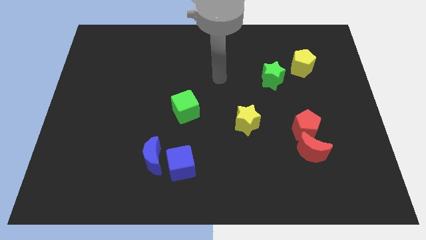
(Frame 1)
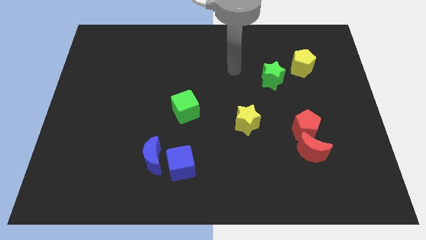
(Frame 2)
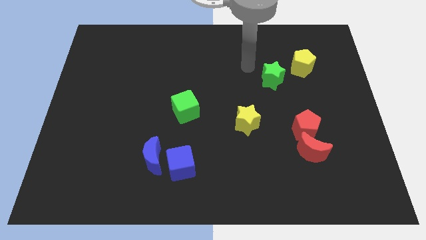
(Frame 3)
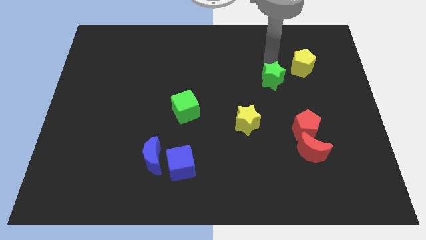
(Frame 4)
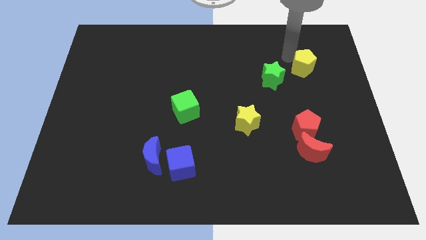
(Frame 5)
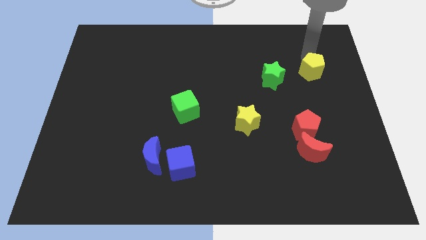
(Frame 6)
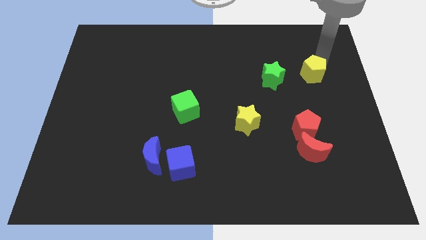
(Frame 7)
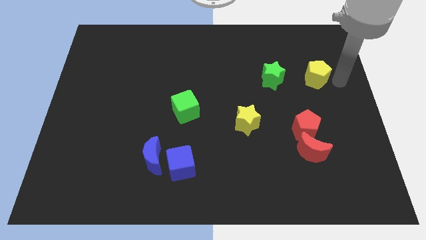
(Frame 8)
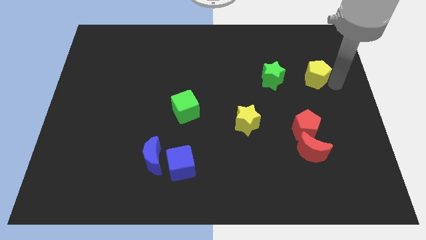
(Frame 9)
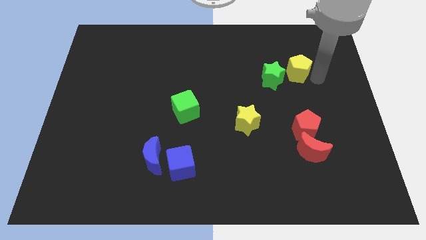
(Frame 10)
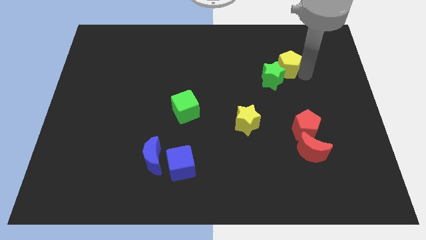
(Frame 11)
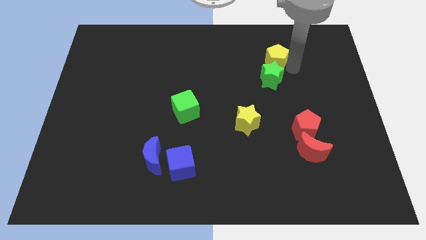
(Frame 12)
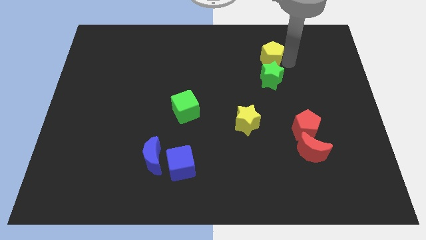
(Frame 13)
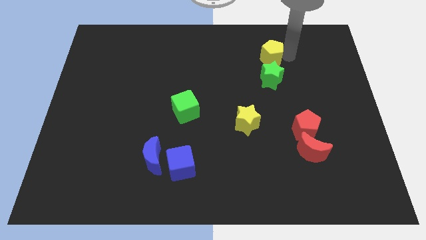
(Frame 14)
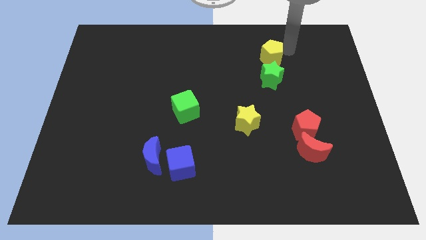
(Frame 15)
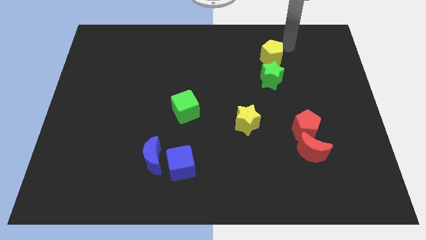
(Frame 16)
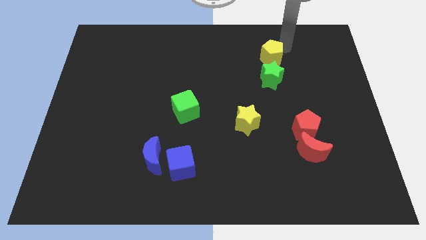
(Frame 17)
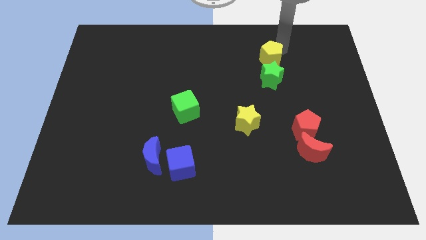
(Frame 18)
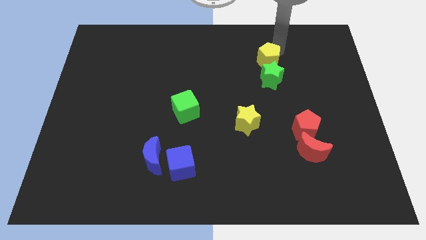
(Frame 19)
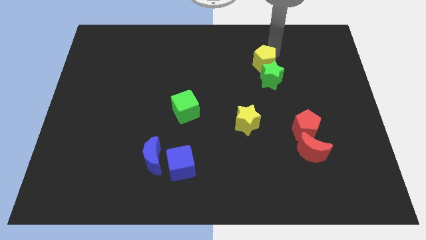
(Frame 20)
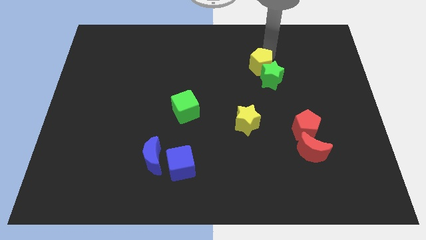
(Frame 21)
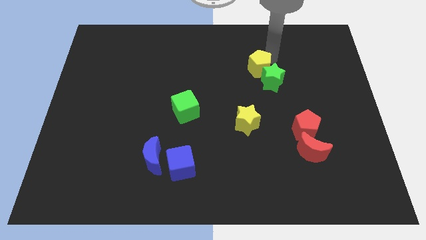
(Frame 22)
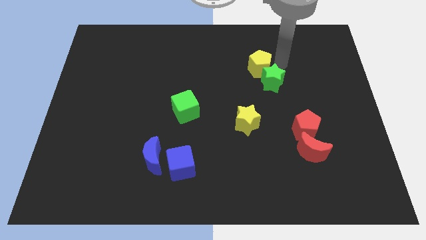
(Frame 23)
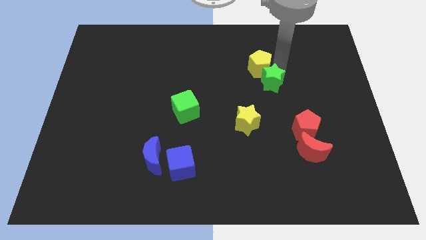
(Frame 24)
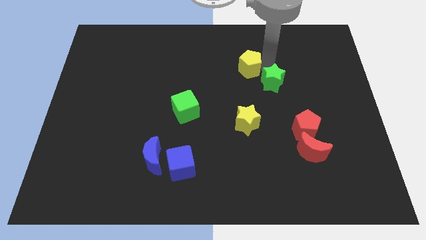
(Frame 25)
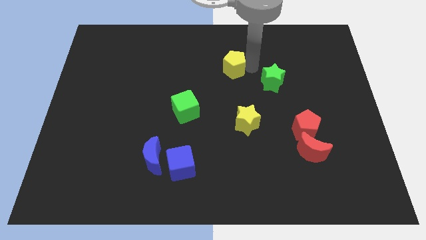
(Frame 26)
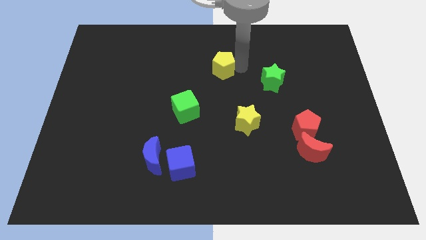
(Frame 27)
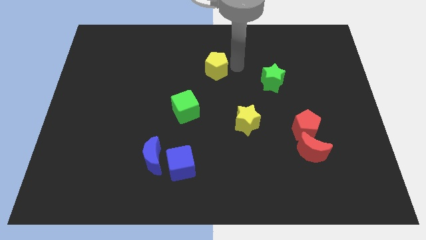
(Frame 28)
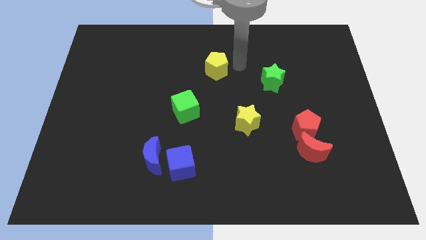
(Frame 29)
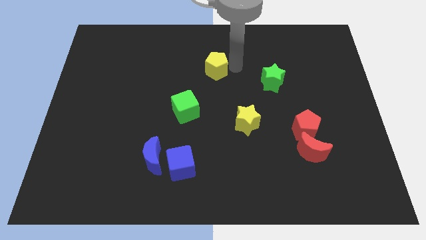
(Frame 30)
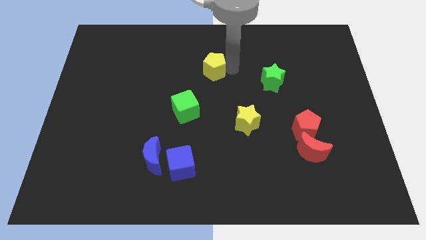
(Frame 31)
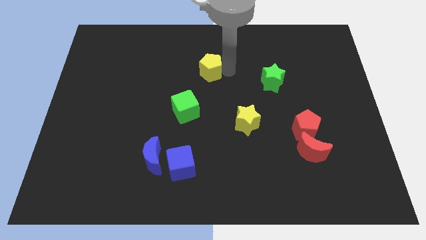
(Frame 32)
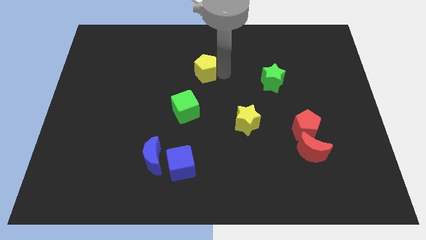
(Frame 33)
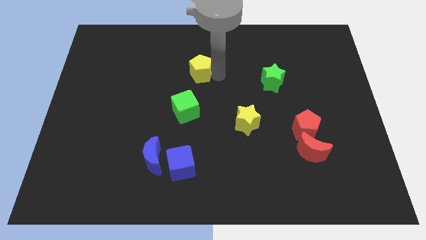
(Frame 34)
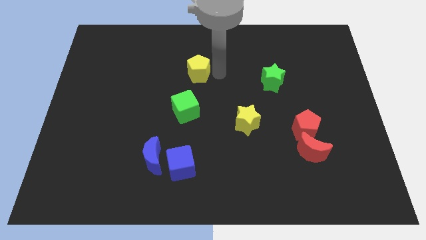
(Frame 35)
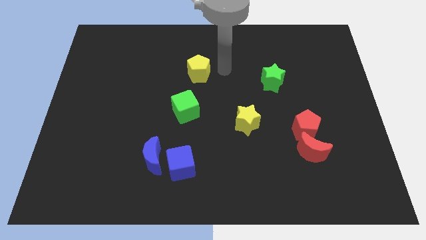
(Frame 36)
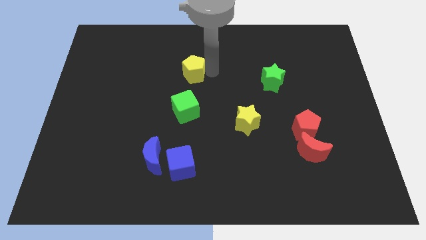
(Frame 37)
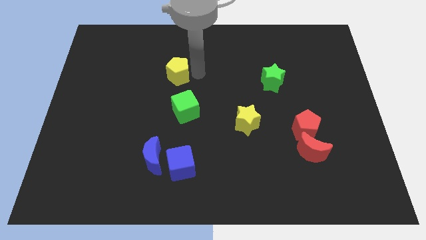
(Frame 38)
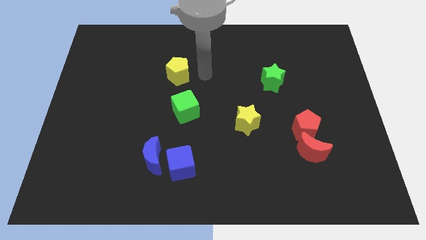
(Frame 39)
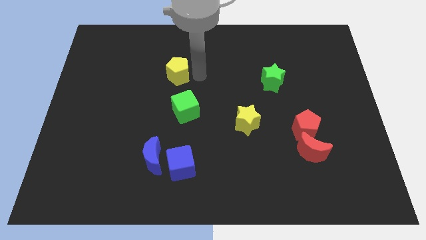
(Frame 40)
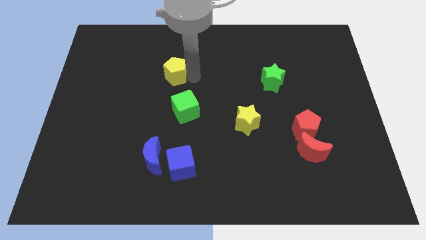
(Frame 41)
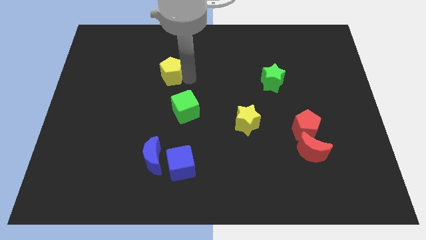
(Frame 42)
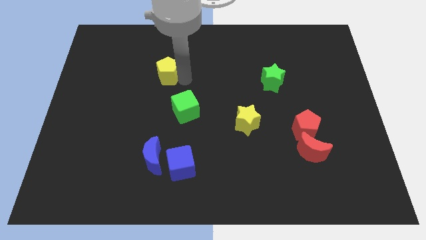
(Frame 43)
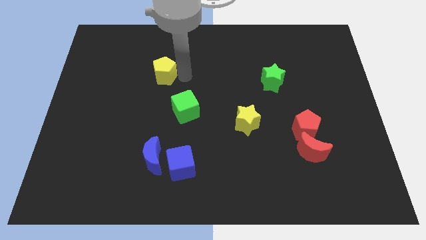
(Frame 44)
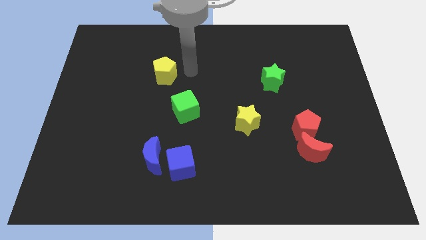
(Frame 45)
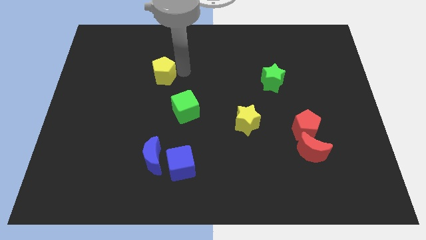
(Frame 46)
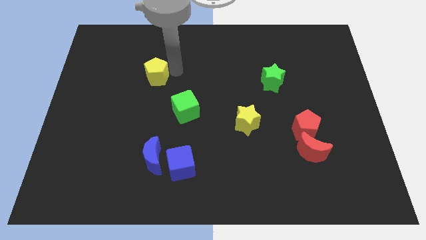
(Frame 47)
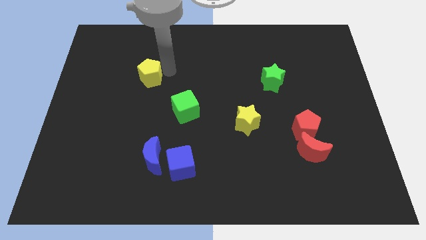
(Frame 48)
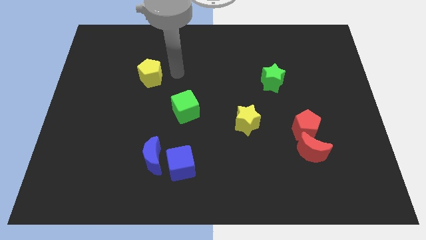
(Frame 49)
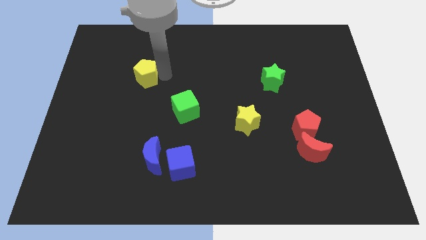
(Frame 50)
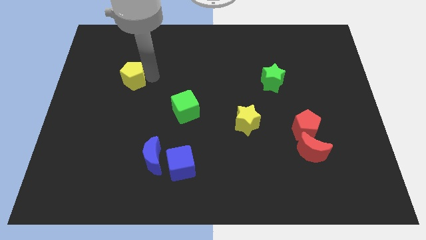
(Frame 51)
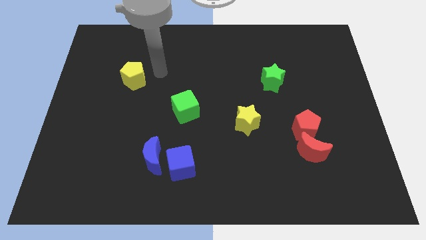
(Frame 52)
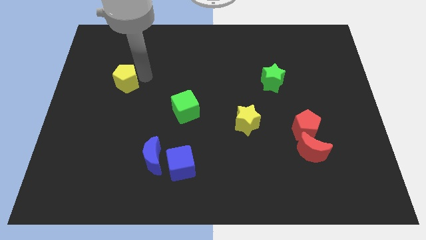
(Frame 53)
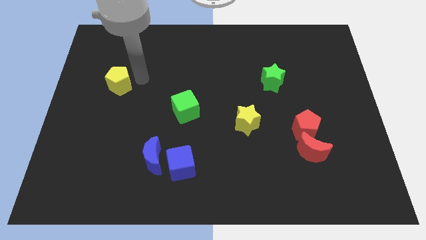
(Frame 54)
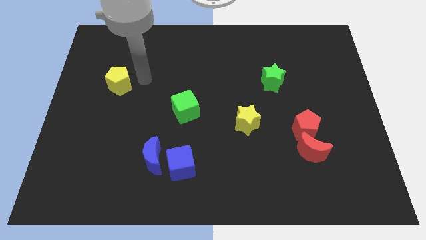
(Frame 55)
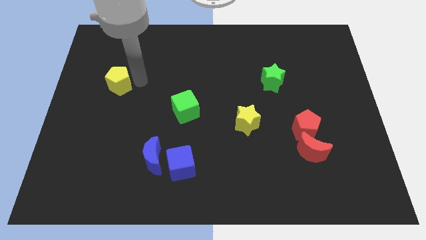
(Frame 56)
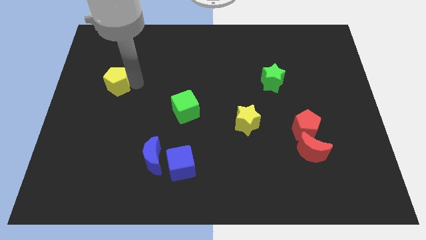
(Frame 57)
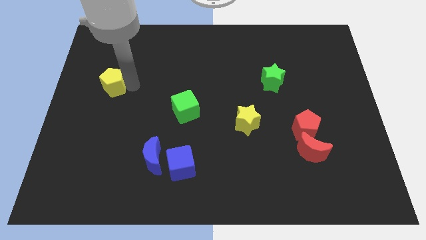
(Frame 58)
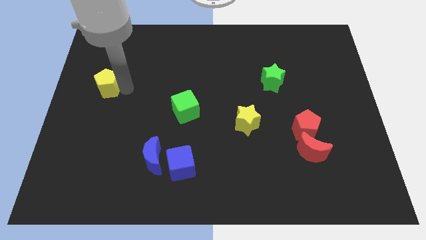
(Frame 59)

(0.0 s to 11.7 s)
move the yellow pentagon to the left side

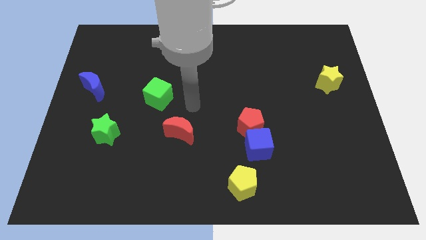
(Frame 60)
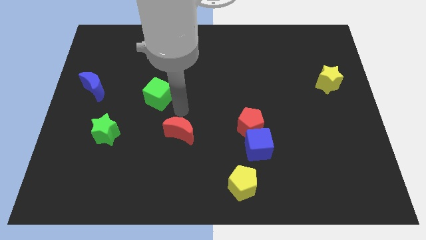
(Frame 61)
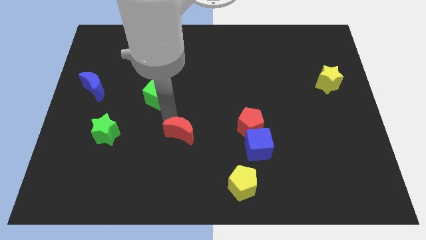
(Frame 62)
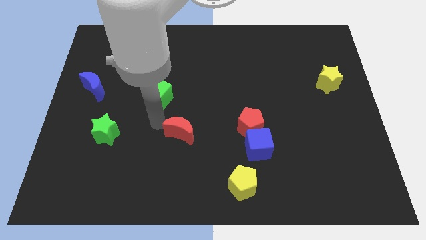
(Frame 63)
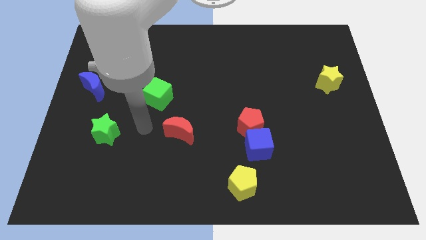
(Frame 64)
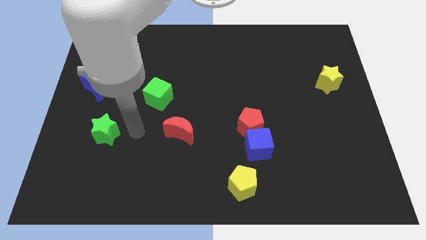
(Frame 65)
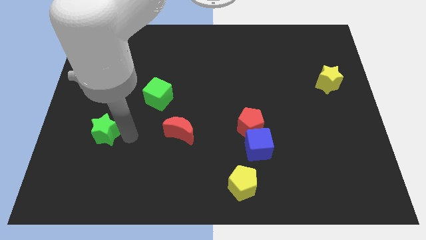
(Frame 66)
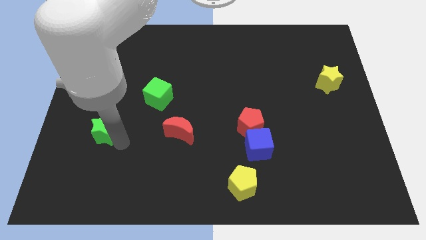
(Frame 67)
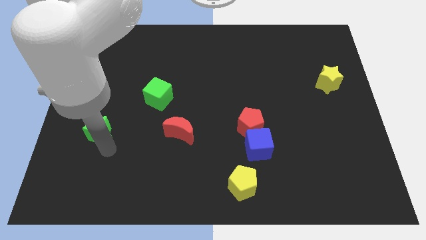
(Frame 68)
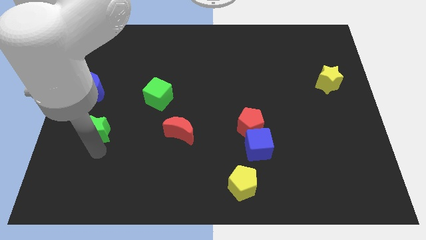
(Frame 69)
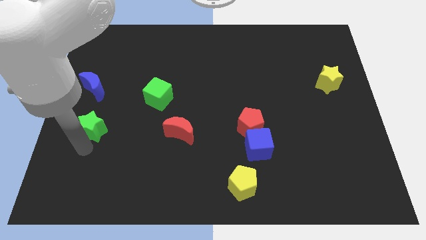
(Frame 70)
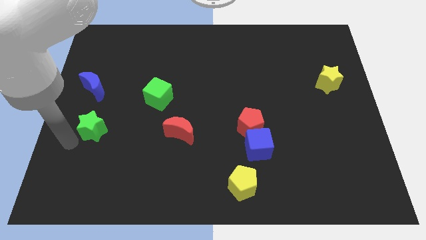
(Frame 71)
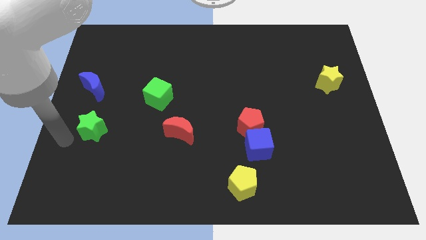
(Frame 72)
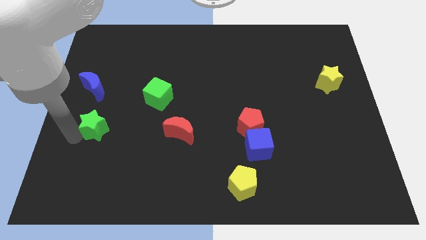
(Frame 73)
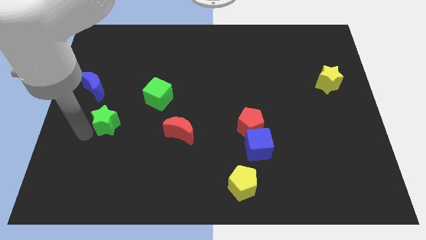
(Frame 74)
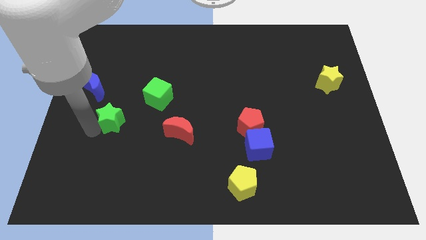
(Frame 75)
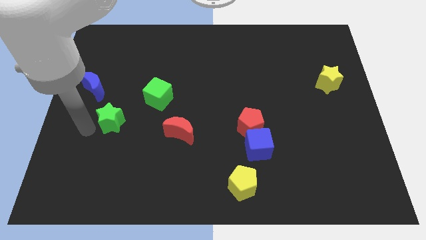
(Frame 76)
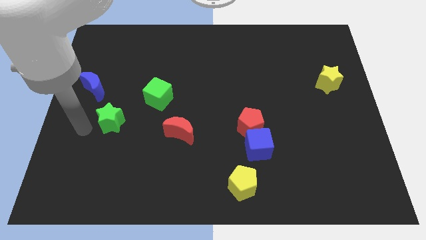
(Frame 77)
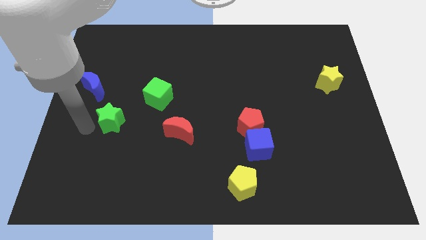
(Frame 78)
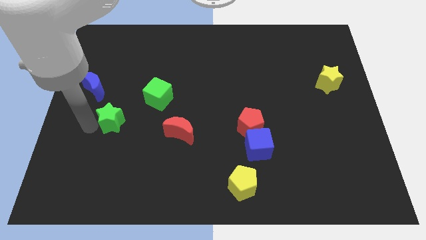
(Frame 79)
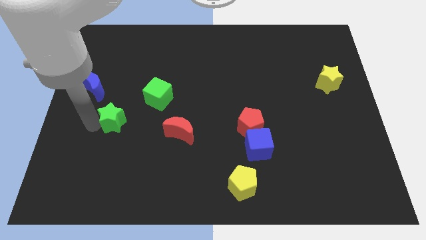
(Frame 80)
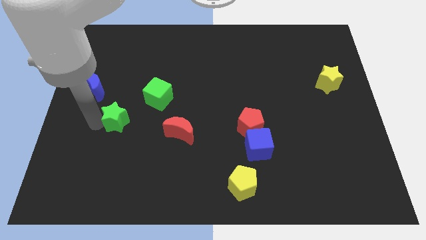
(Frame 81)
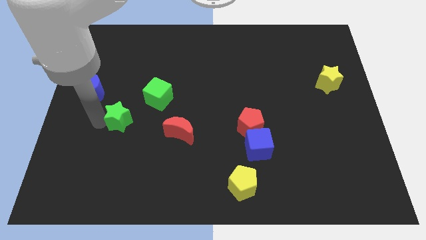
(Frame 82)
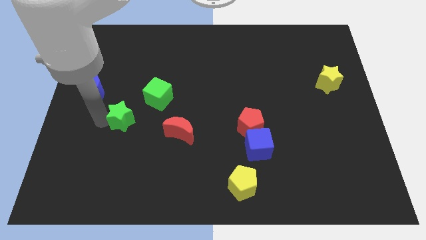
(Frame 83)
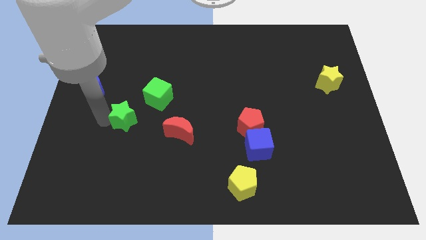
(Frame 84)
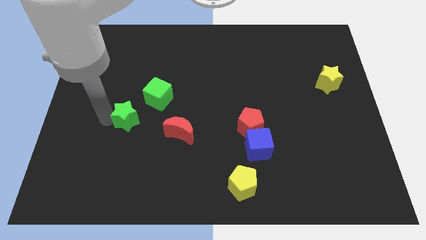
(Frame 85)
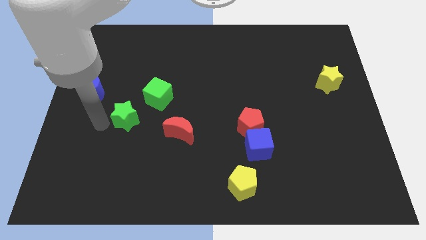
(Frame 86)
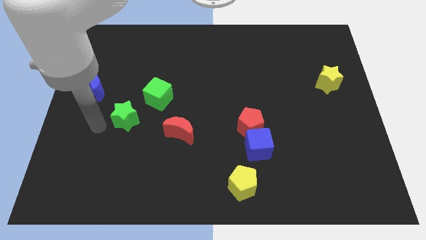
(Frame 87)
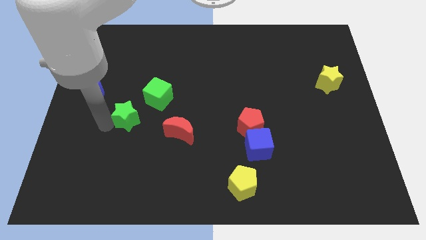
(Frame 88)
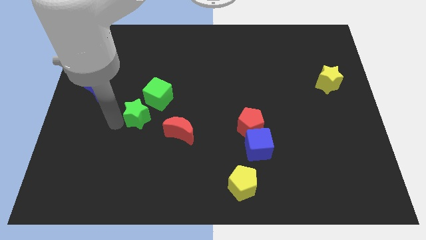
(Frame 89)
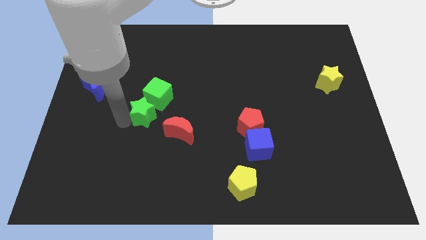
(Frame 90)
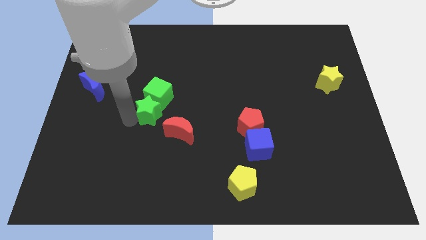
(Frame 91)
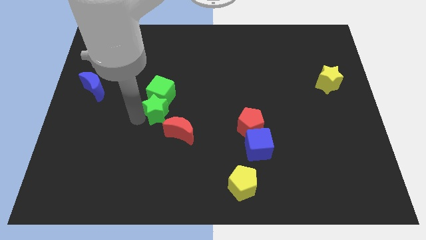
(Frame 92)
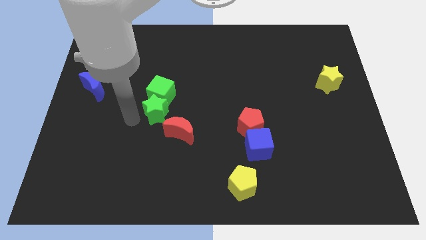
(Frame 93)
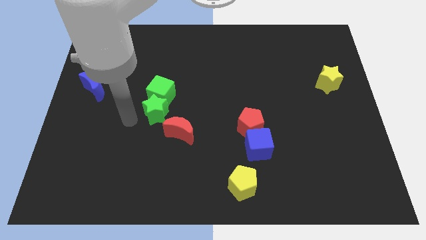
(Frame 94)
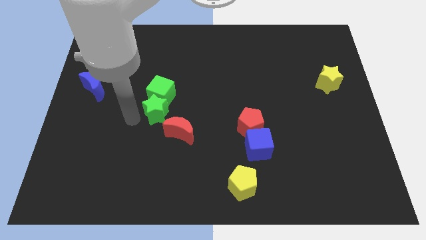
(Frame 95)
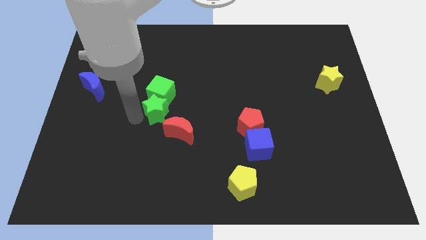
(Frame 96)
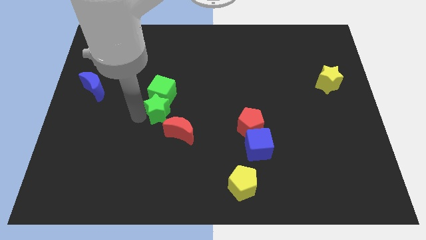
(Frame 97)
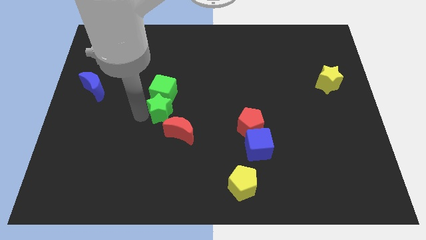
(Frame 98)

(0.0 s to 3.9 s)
move the green star to the center of the board
